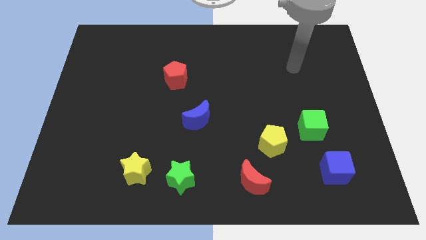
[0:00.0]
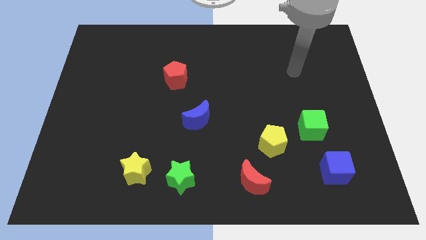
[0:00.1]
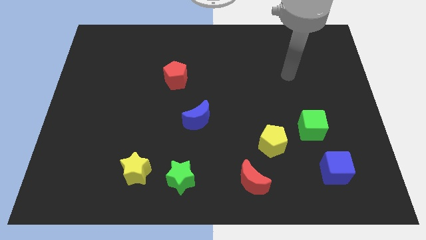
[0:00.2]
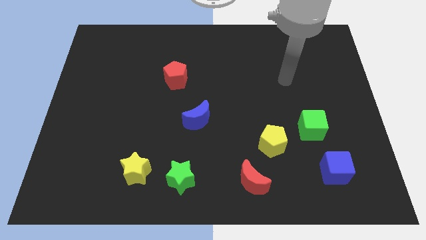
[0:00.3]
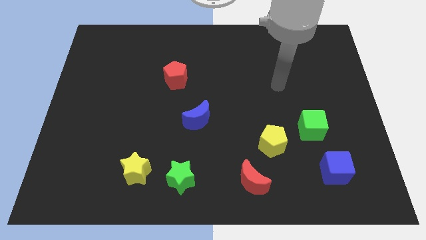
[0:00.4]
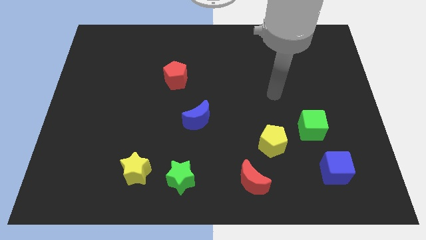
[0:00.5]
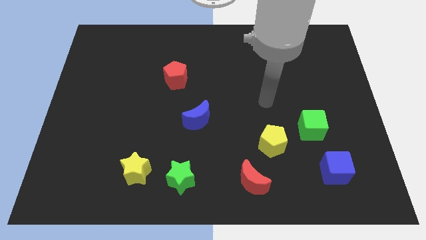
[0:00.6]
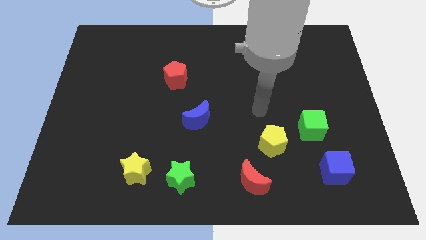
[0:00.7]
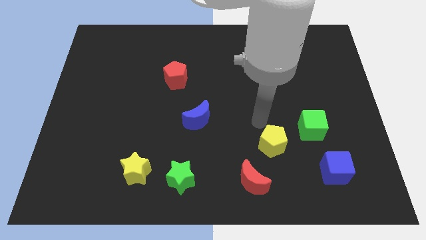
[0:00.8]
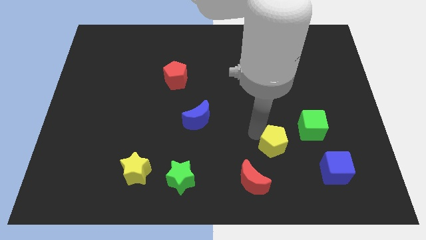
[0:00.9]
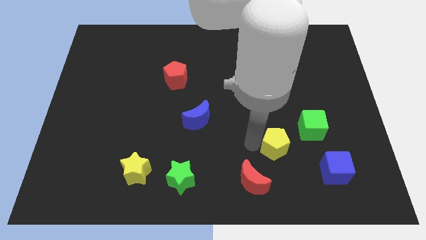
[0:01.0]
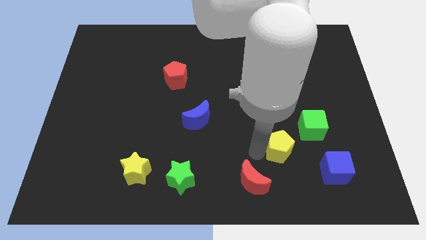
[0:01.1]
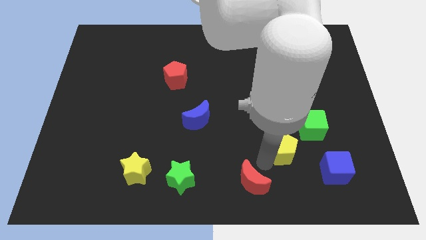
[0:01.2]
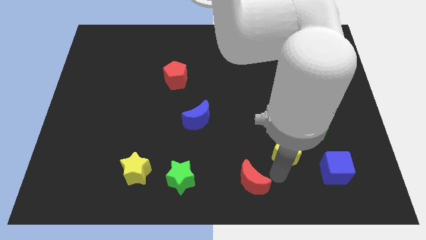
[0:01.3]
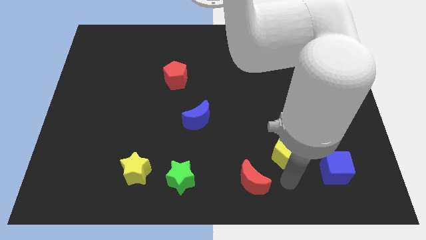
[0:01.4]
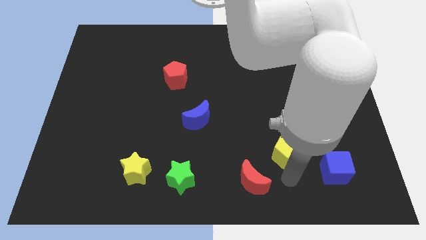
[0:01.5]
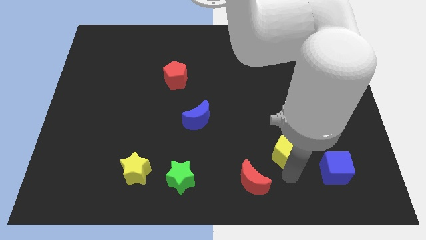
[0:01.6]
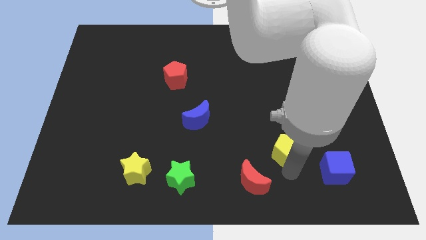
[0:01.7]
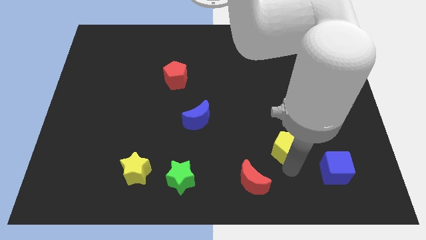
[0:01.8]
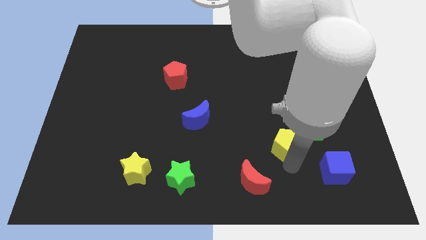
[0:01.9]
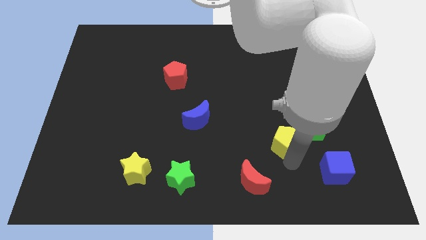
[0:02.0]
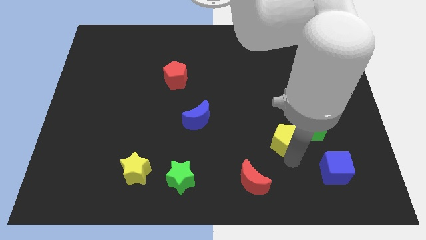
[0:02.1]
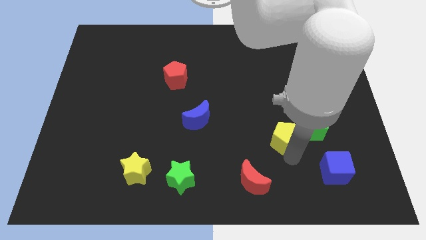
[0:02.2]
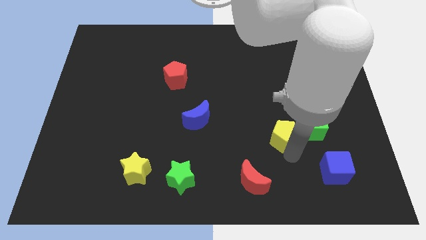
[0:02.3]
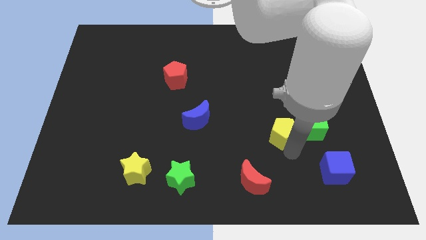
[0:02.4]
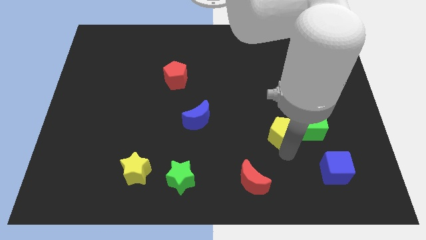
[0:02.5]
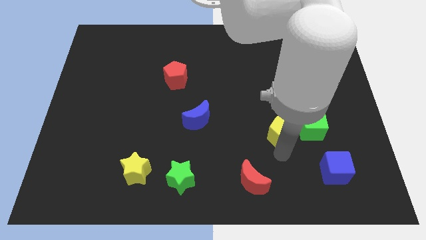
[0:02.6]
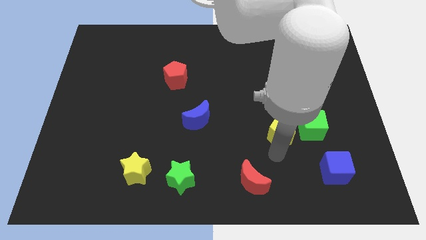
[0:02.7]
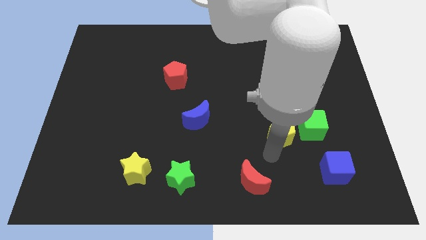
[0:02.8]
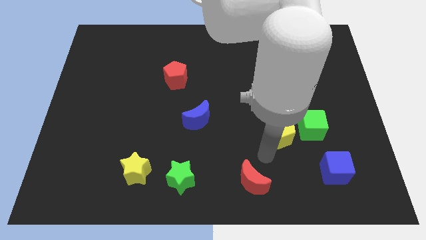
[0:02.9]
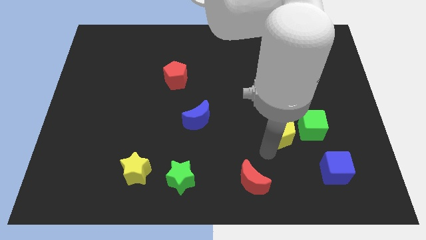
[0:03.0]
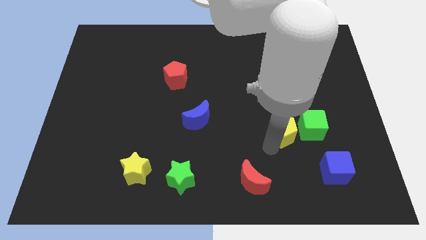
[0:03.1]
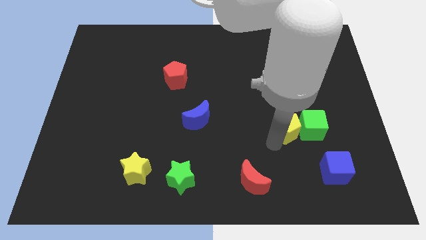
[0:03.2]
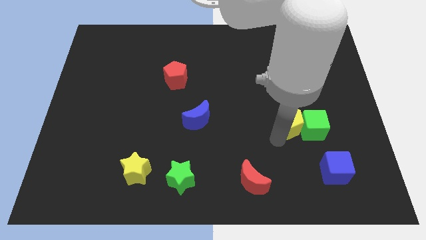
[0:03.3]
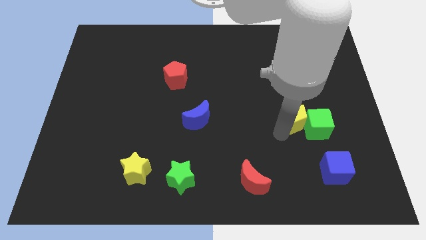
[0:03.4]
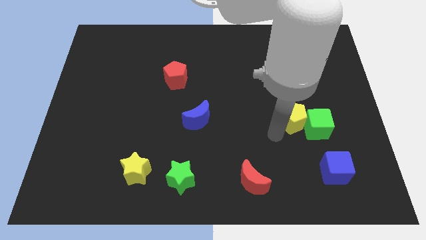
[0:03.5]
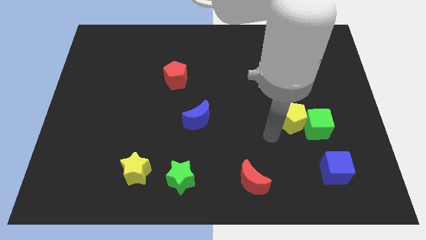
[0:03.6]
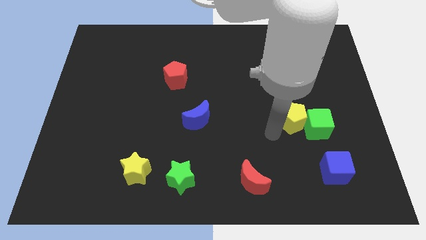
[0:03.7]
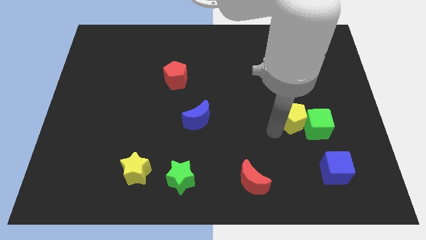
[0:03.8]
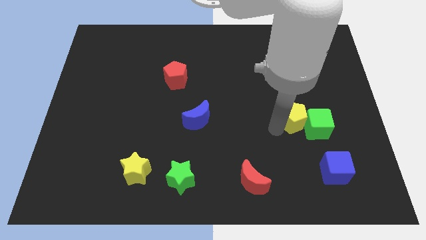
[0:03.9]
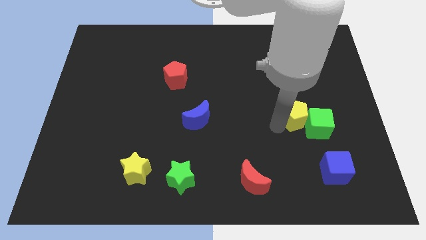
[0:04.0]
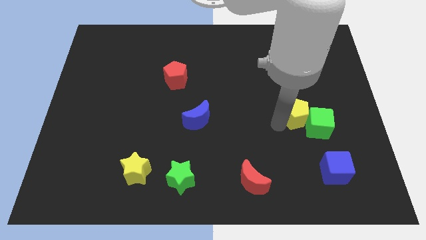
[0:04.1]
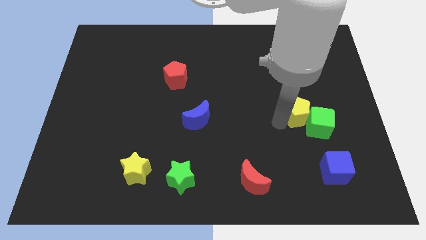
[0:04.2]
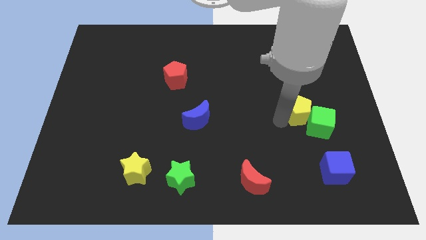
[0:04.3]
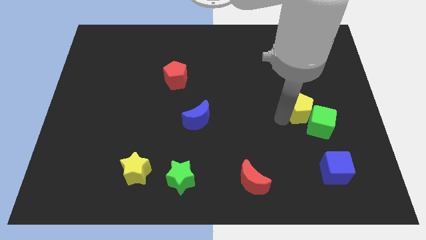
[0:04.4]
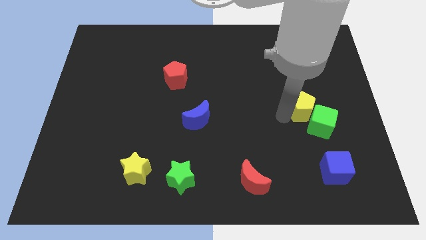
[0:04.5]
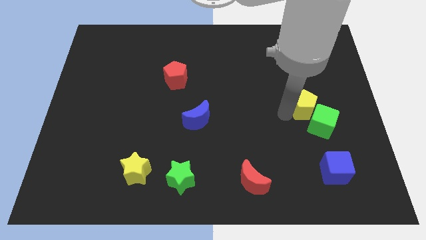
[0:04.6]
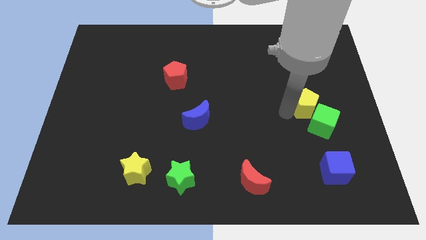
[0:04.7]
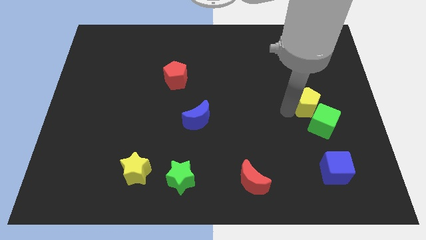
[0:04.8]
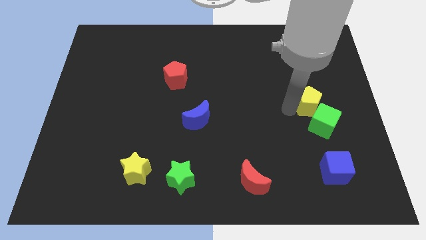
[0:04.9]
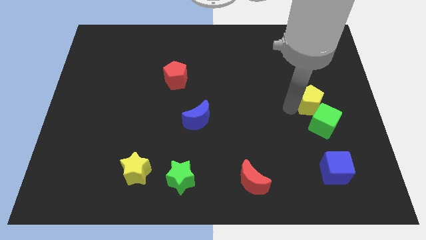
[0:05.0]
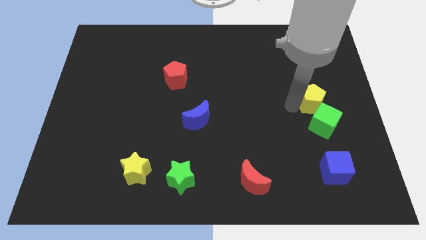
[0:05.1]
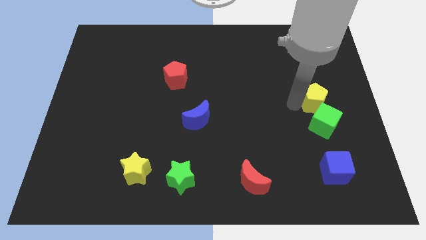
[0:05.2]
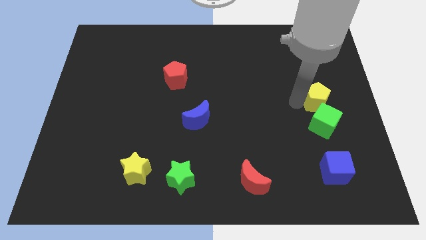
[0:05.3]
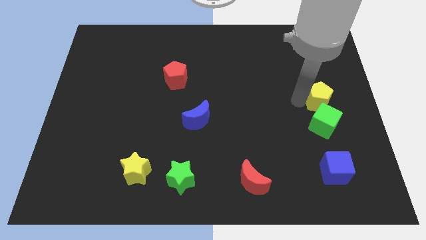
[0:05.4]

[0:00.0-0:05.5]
move the yellow pentagon to the right side

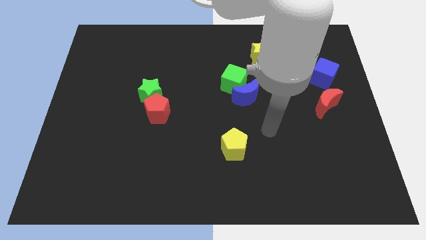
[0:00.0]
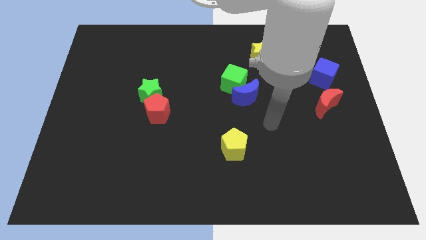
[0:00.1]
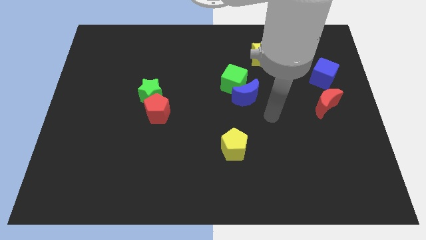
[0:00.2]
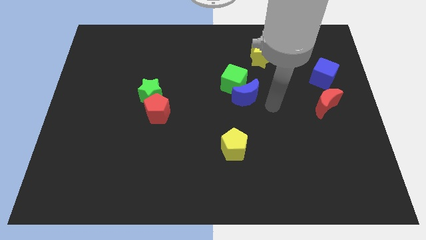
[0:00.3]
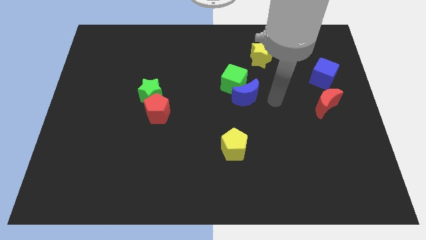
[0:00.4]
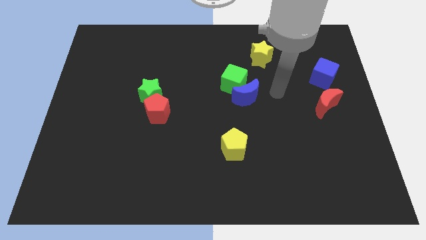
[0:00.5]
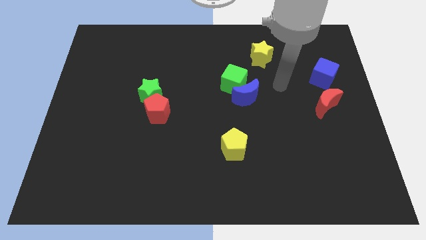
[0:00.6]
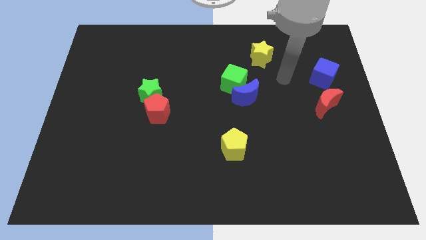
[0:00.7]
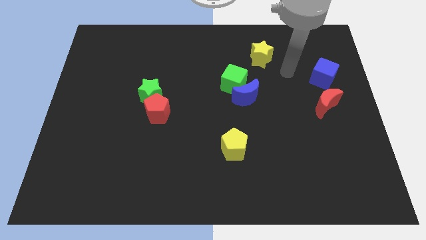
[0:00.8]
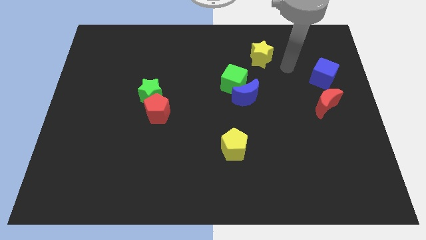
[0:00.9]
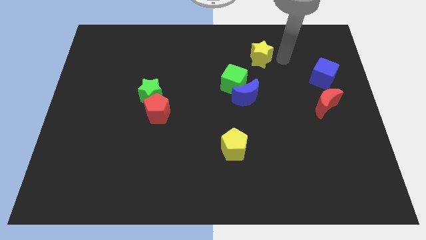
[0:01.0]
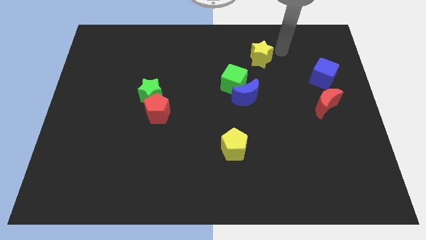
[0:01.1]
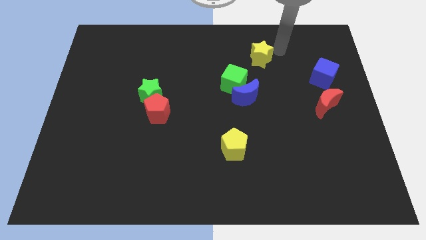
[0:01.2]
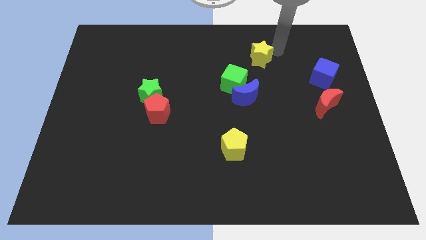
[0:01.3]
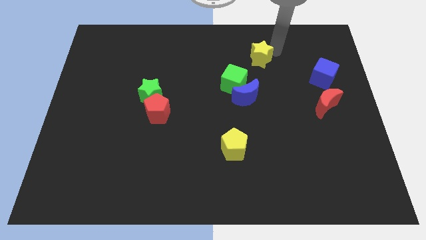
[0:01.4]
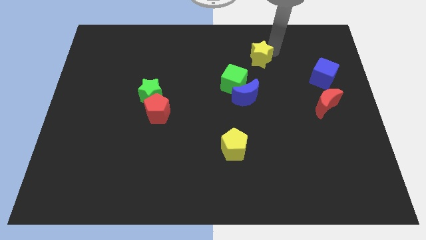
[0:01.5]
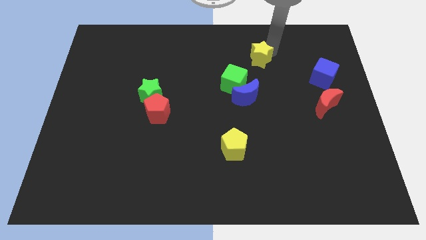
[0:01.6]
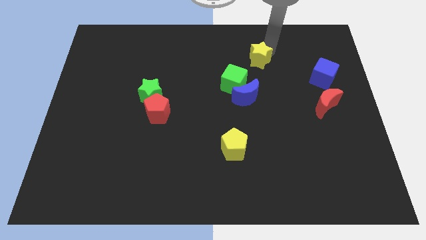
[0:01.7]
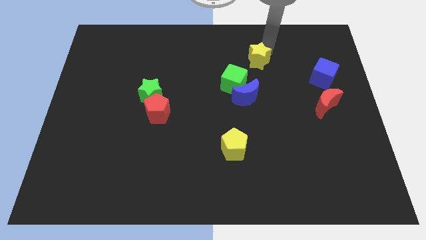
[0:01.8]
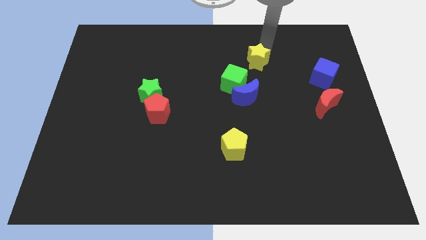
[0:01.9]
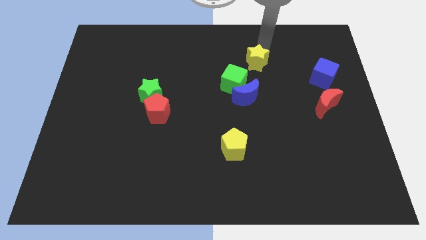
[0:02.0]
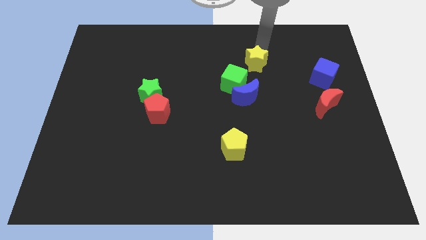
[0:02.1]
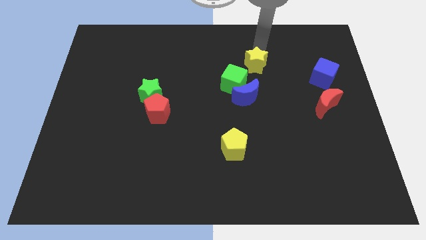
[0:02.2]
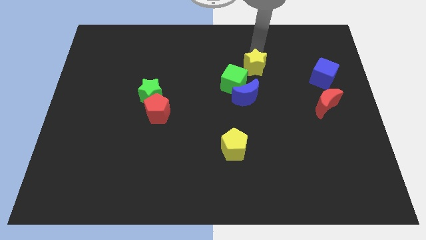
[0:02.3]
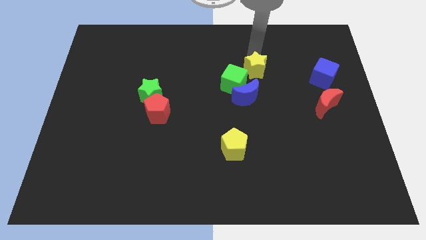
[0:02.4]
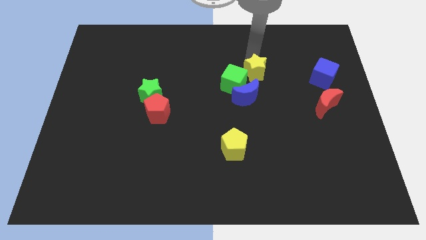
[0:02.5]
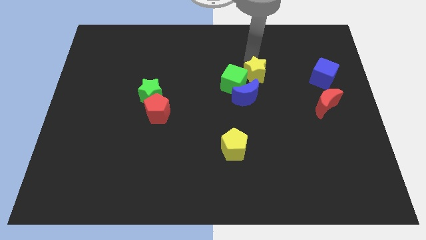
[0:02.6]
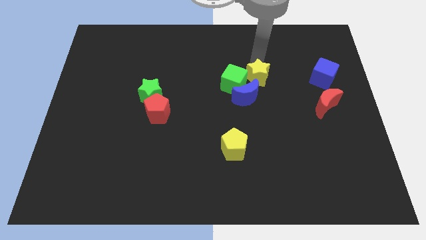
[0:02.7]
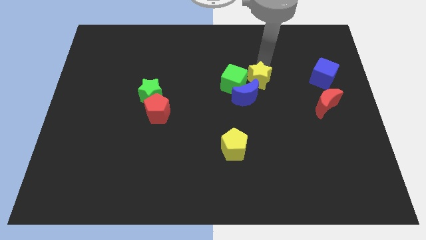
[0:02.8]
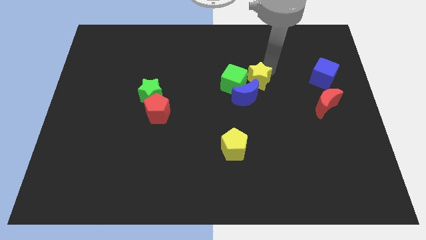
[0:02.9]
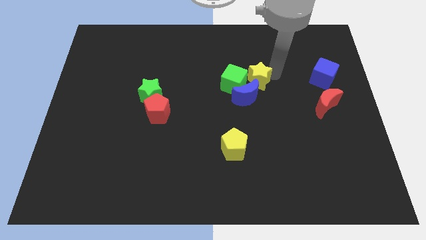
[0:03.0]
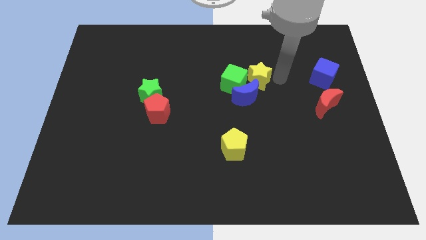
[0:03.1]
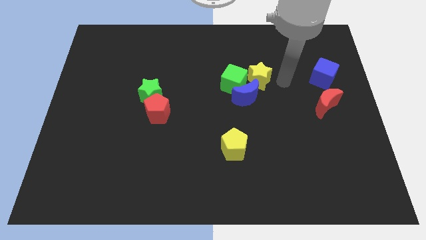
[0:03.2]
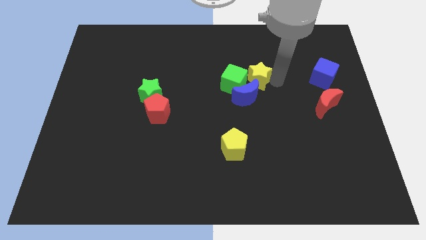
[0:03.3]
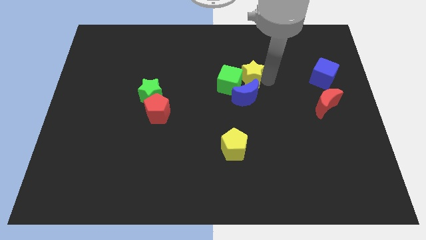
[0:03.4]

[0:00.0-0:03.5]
slide the yellow star to the center of the board
